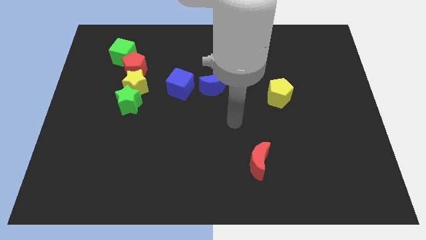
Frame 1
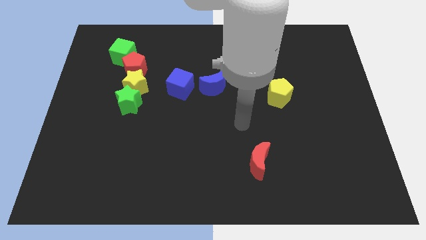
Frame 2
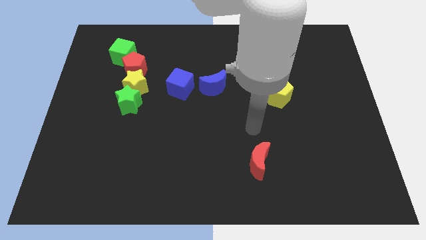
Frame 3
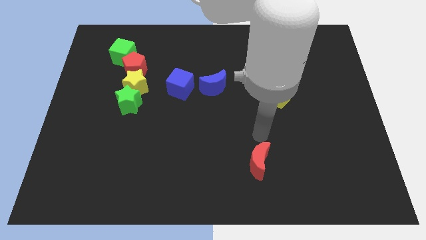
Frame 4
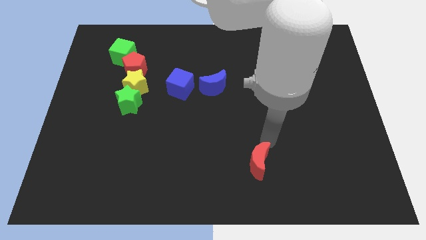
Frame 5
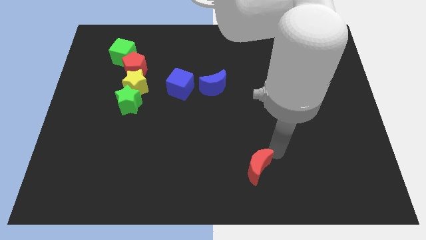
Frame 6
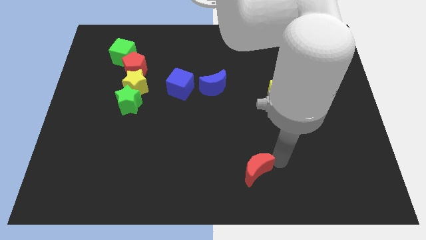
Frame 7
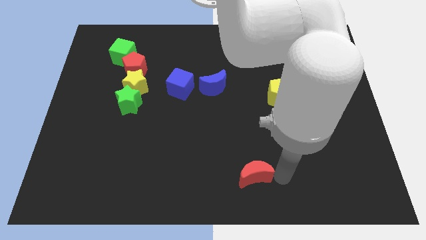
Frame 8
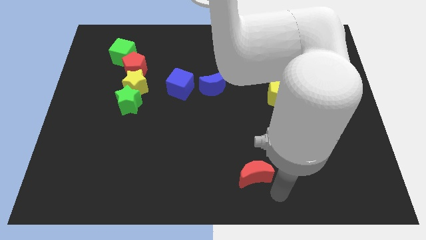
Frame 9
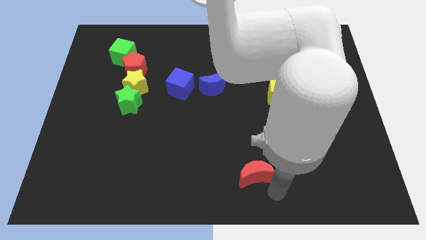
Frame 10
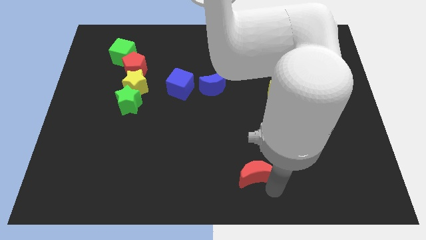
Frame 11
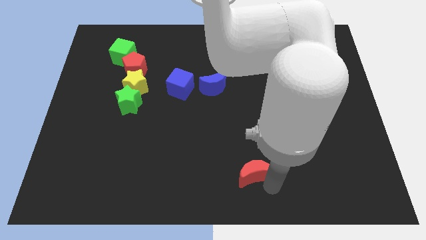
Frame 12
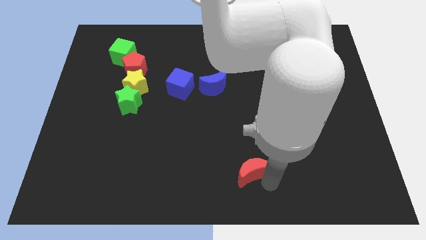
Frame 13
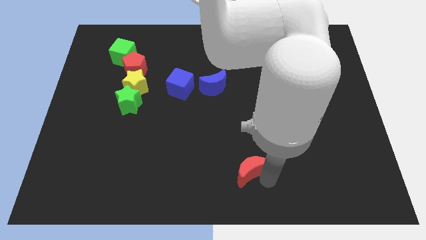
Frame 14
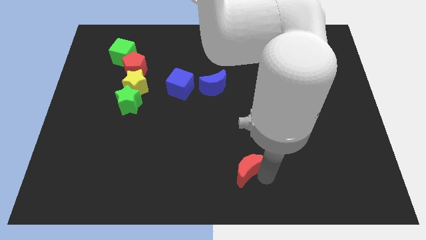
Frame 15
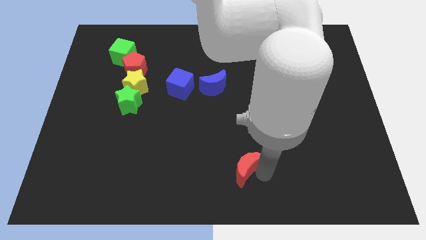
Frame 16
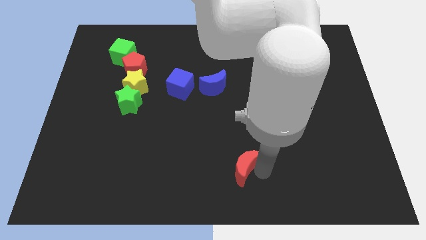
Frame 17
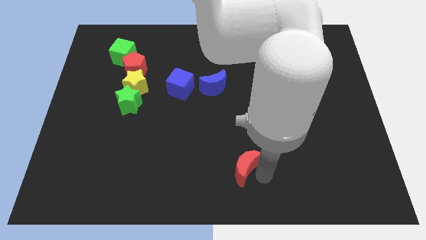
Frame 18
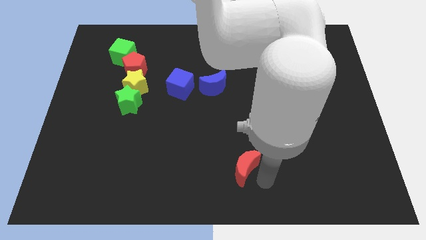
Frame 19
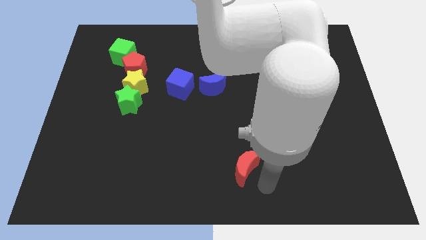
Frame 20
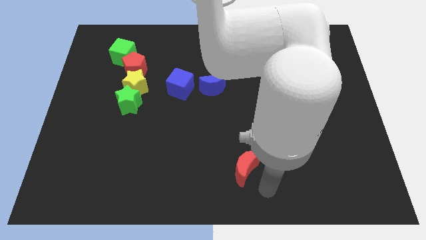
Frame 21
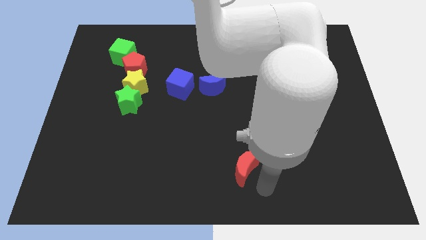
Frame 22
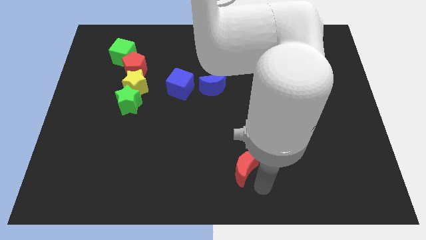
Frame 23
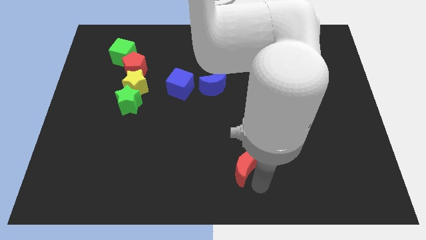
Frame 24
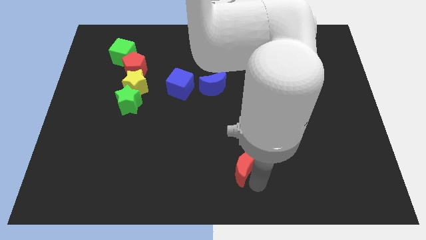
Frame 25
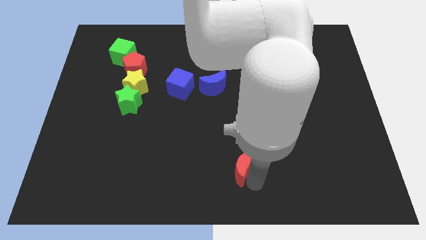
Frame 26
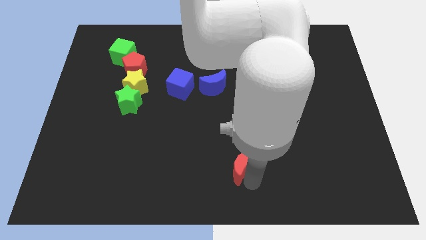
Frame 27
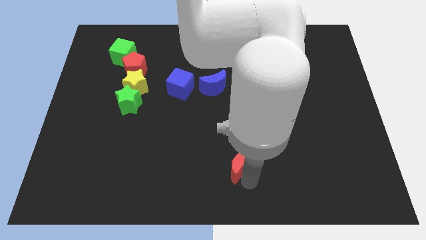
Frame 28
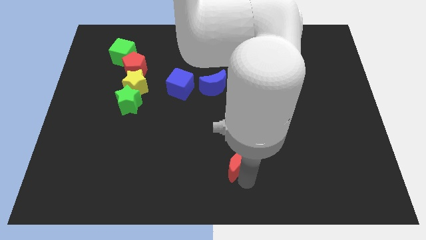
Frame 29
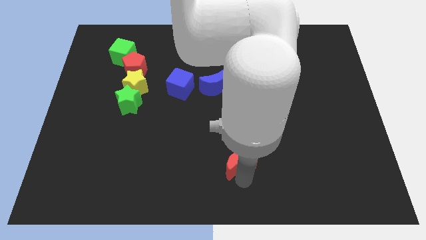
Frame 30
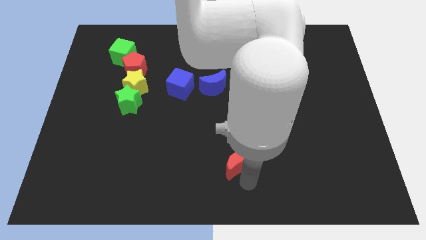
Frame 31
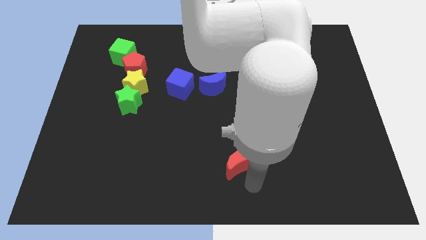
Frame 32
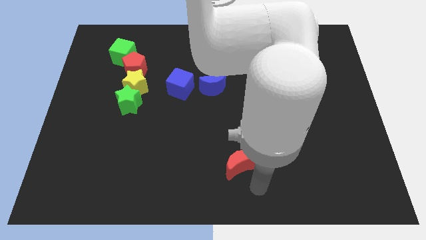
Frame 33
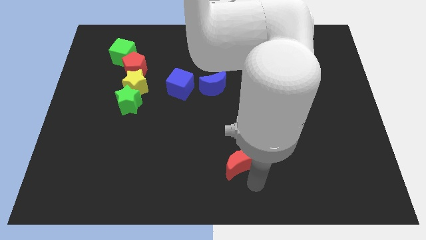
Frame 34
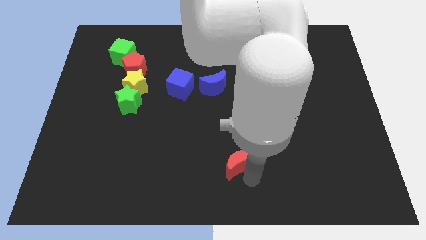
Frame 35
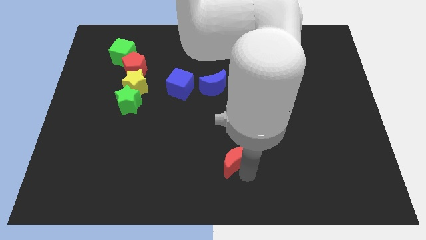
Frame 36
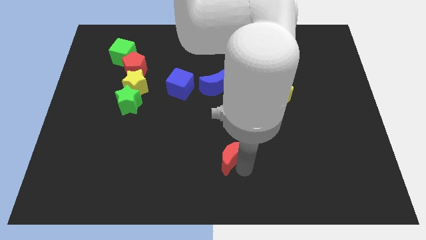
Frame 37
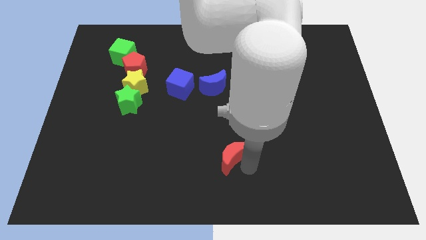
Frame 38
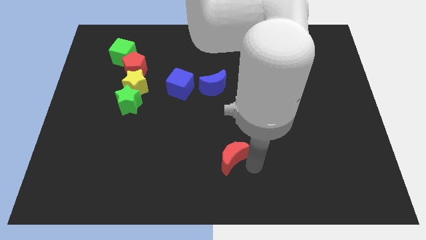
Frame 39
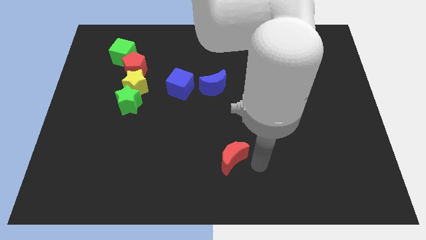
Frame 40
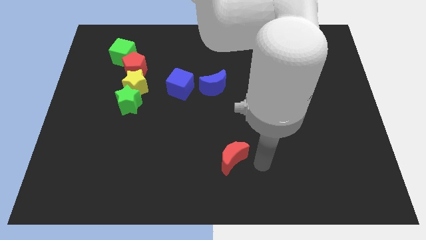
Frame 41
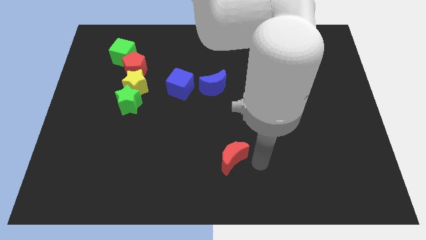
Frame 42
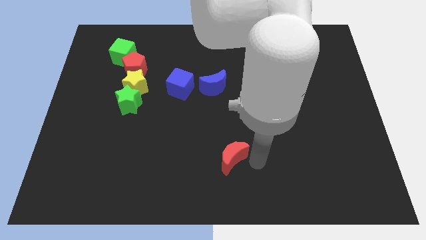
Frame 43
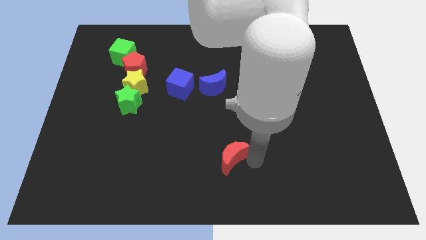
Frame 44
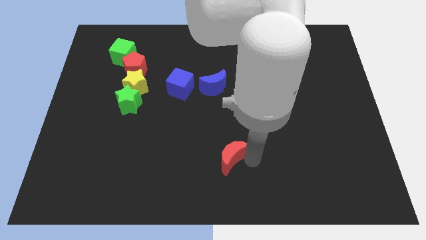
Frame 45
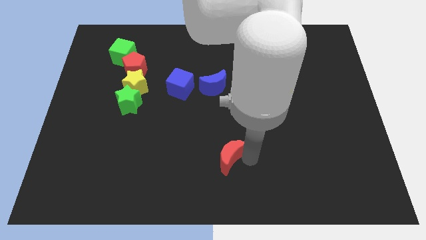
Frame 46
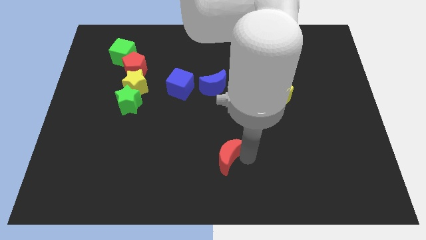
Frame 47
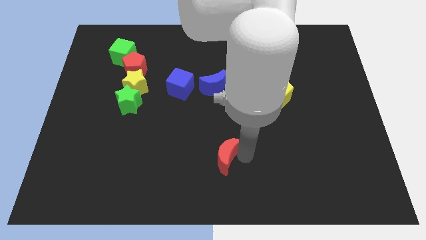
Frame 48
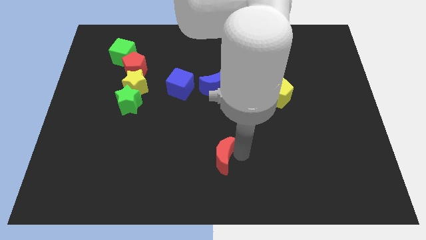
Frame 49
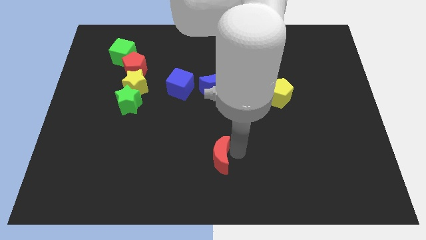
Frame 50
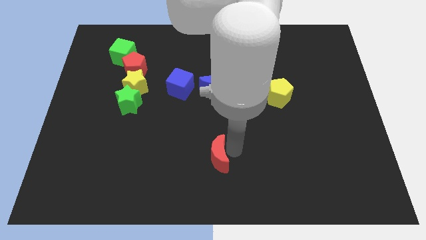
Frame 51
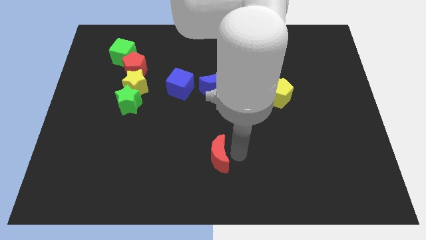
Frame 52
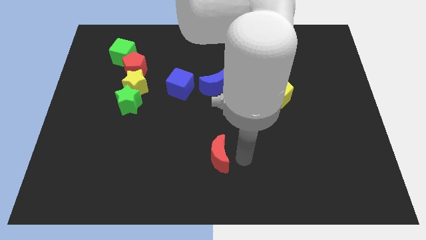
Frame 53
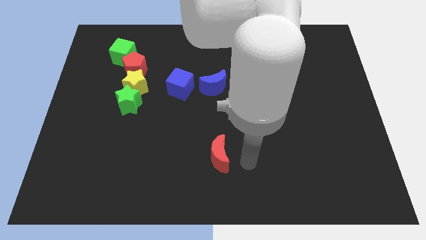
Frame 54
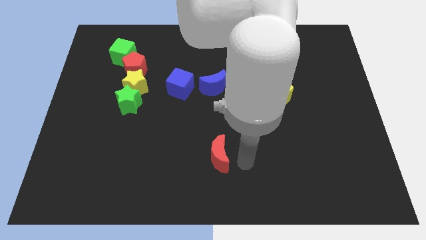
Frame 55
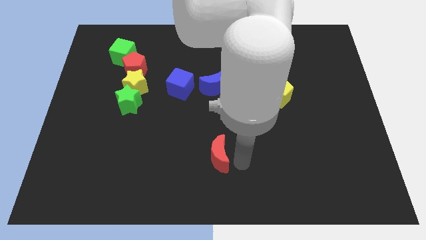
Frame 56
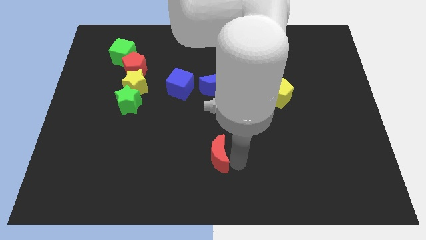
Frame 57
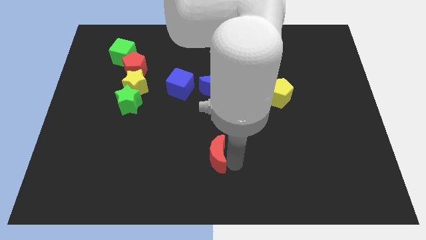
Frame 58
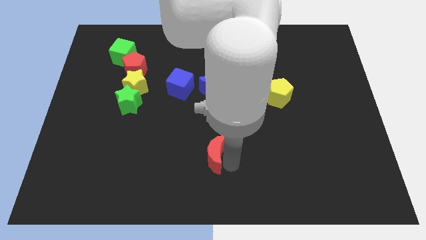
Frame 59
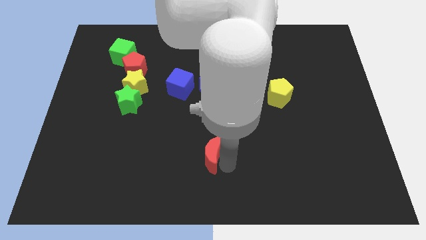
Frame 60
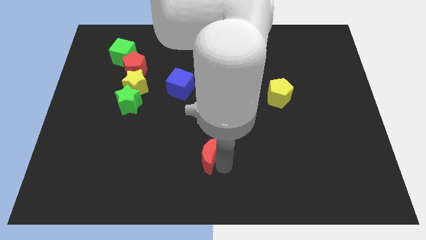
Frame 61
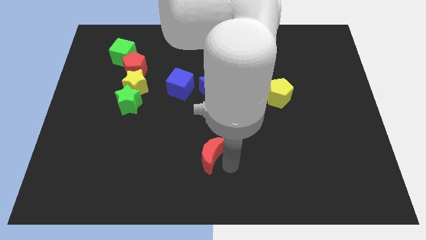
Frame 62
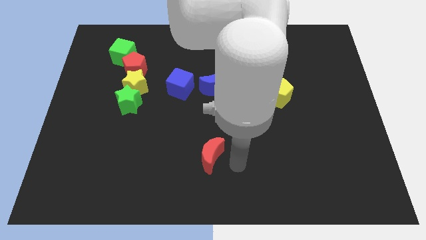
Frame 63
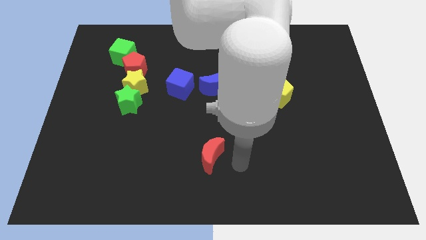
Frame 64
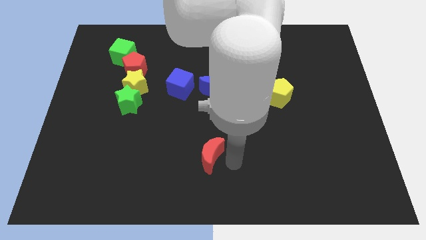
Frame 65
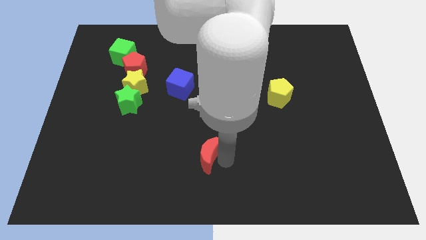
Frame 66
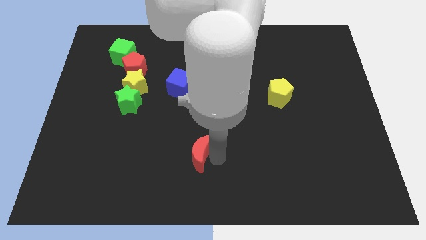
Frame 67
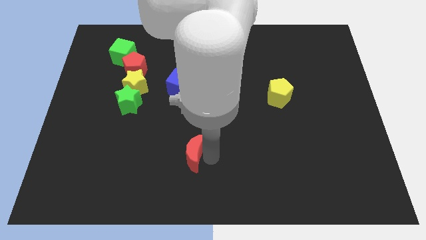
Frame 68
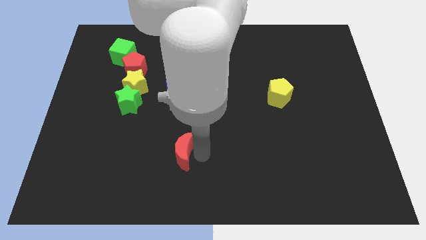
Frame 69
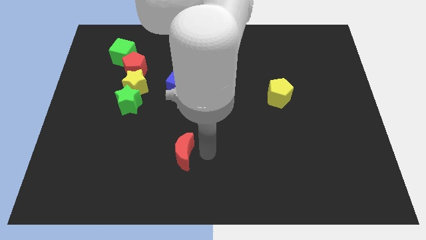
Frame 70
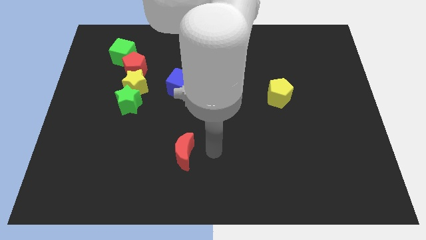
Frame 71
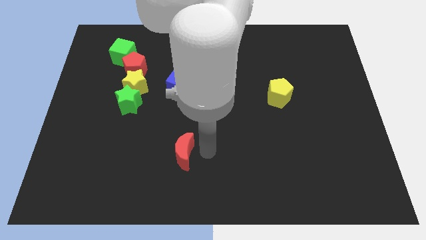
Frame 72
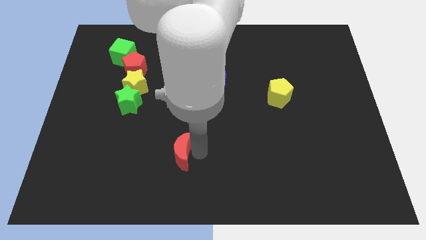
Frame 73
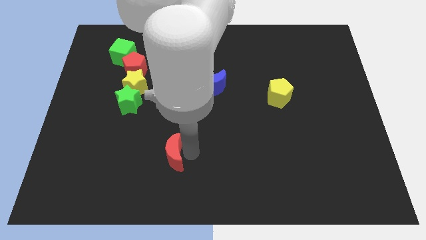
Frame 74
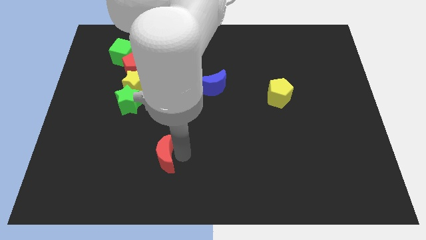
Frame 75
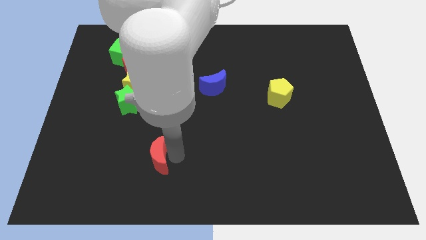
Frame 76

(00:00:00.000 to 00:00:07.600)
move the red moon to the left

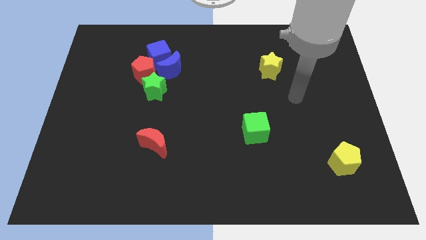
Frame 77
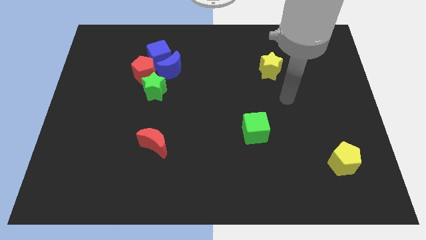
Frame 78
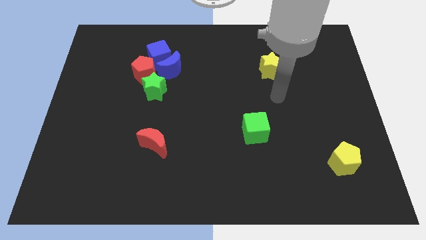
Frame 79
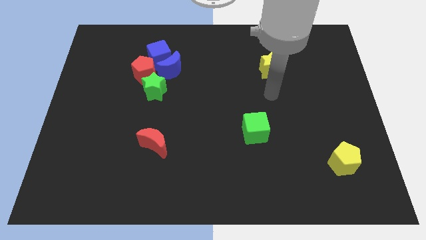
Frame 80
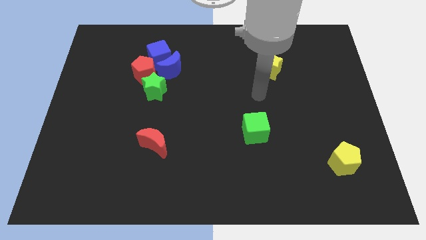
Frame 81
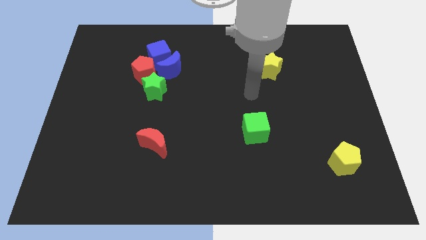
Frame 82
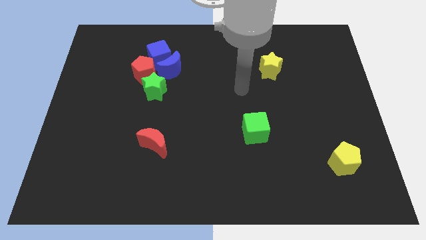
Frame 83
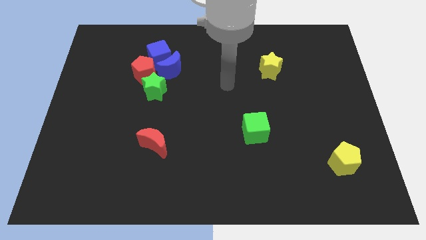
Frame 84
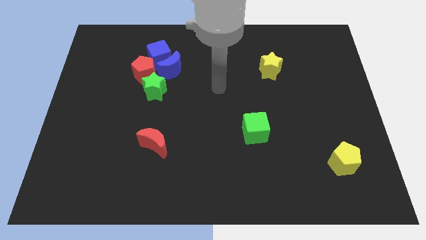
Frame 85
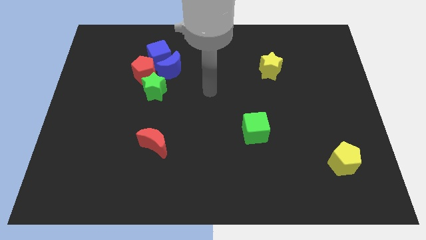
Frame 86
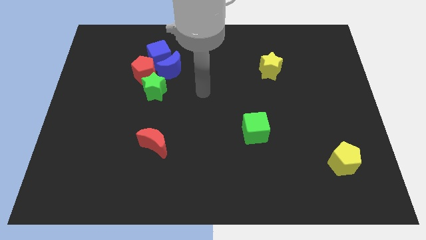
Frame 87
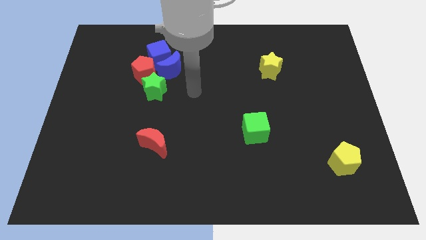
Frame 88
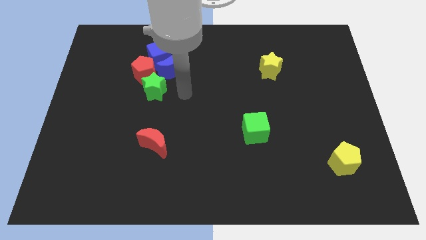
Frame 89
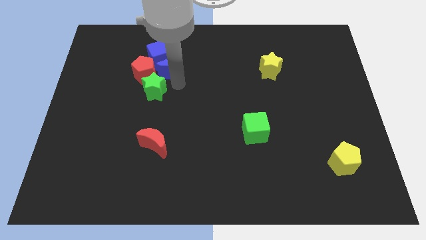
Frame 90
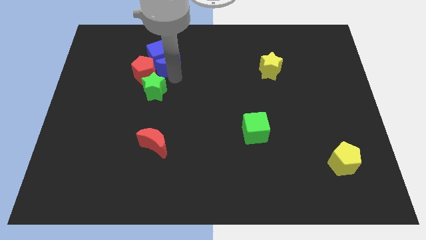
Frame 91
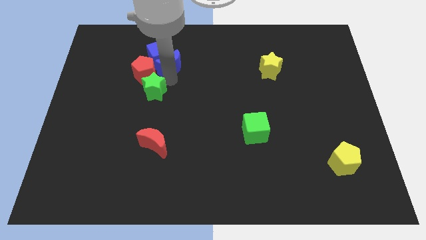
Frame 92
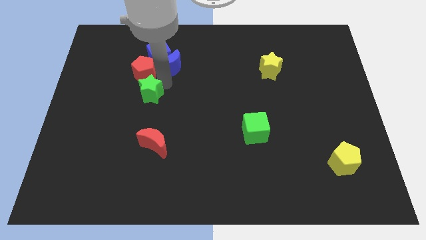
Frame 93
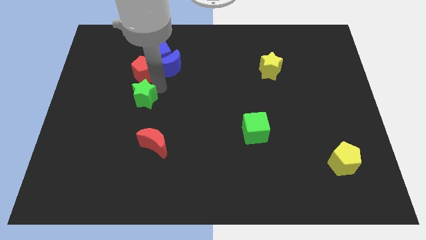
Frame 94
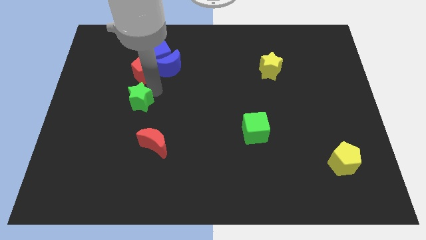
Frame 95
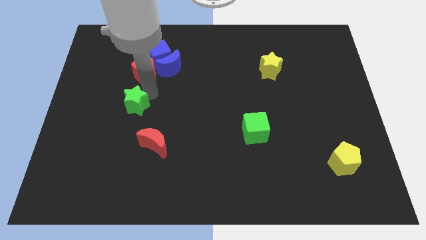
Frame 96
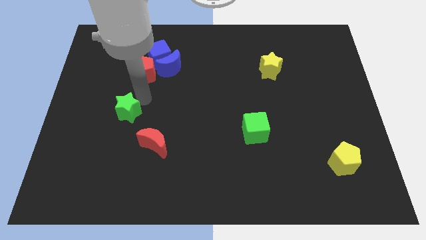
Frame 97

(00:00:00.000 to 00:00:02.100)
slightly move the green star downwards and left diagonally
